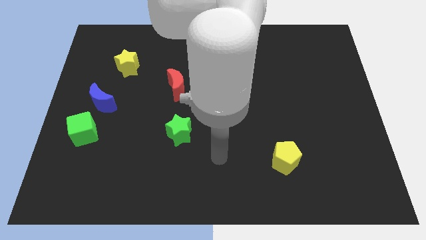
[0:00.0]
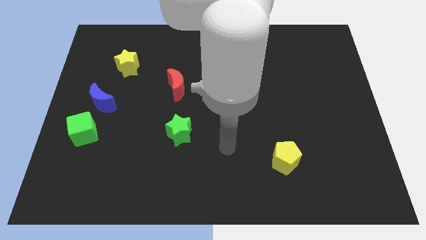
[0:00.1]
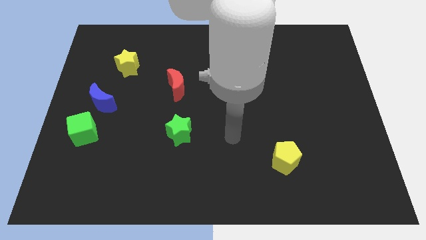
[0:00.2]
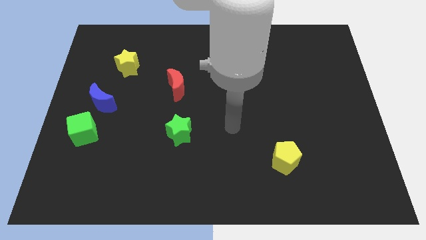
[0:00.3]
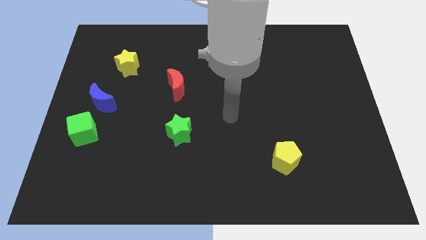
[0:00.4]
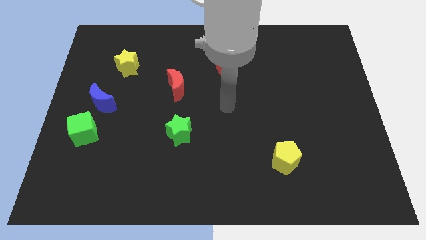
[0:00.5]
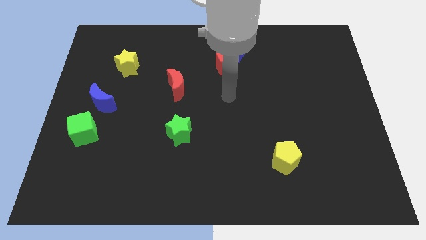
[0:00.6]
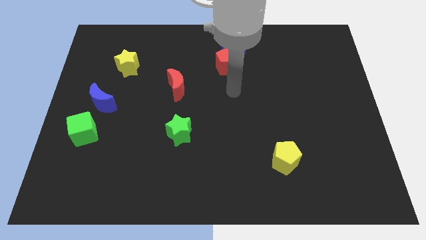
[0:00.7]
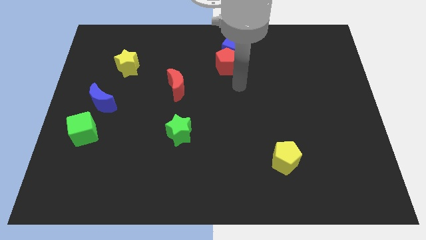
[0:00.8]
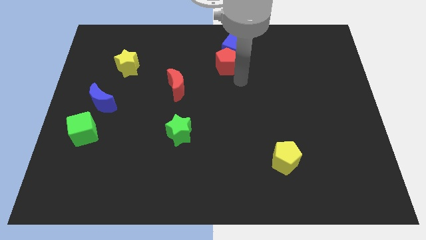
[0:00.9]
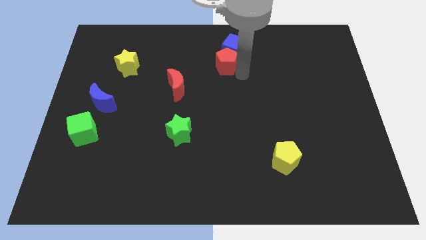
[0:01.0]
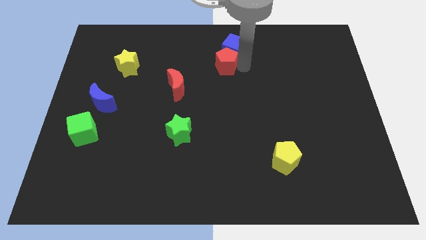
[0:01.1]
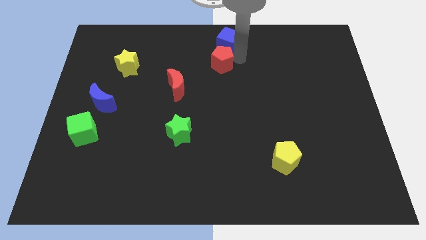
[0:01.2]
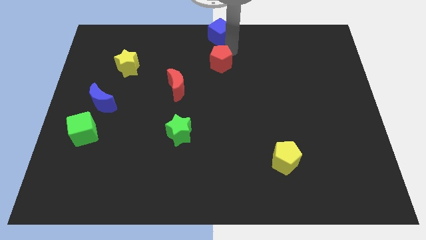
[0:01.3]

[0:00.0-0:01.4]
pull the red pentagon apart from the blue cube

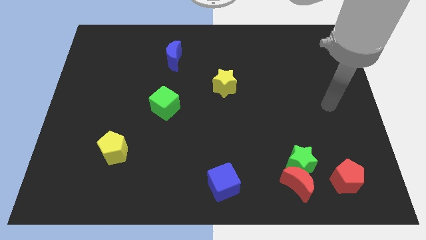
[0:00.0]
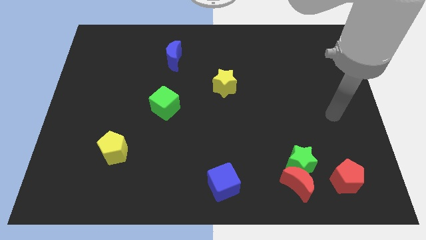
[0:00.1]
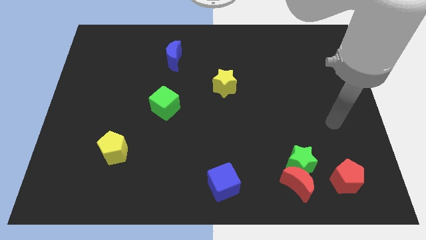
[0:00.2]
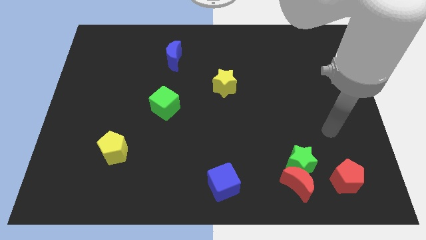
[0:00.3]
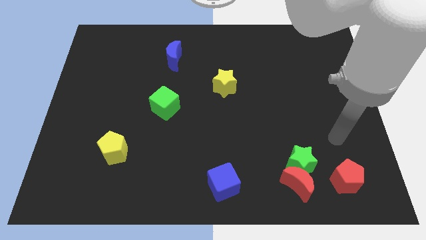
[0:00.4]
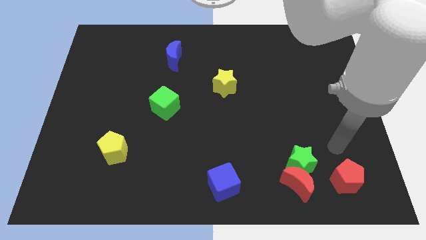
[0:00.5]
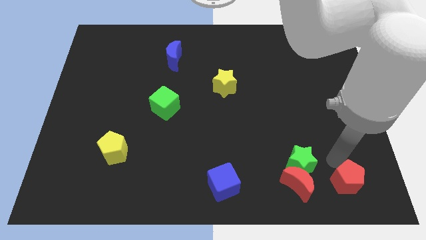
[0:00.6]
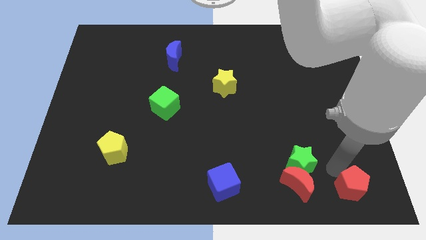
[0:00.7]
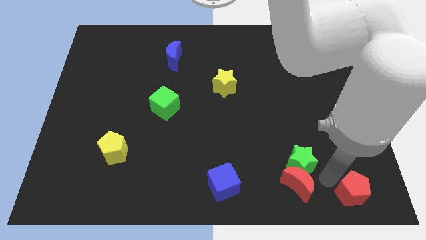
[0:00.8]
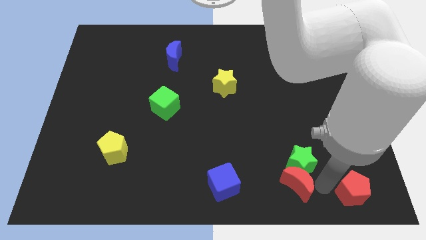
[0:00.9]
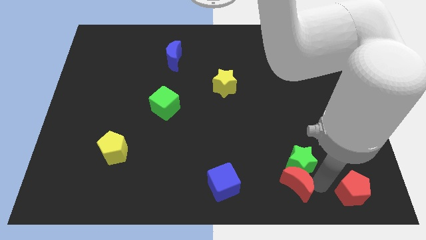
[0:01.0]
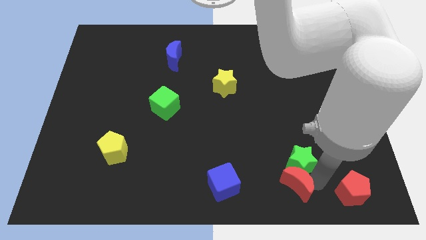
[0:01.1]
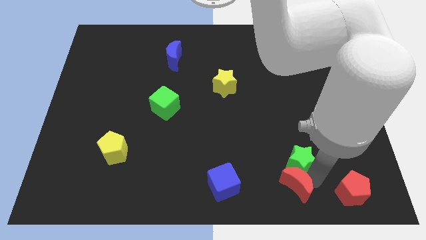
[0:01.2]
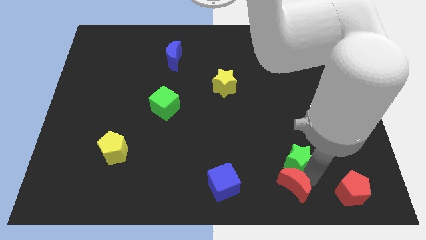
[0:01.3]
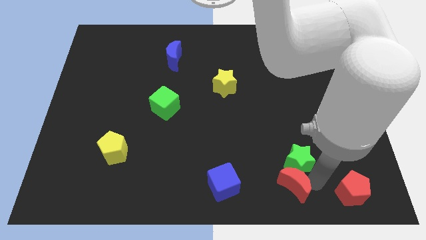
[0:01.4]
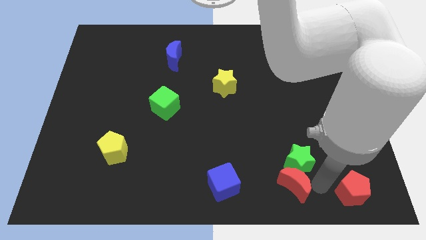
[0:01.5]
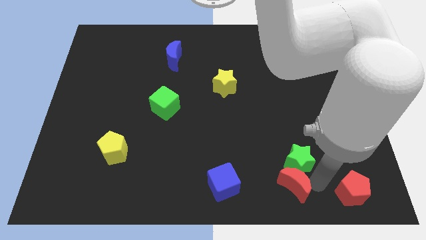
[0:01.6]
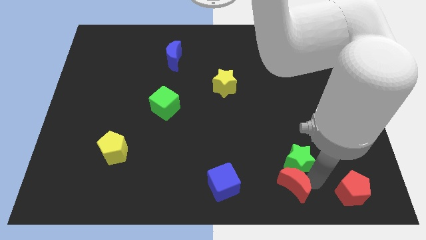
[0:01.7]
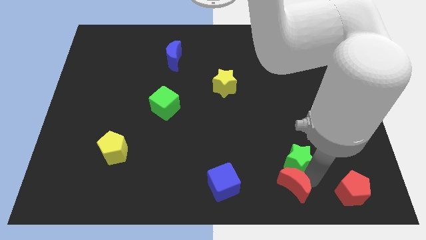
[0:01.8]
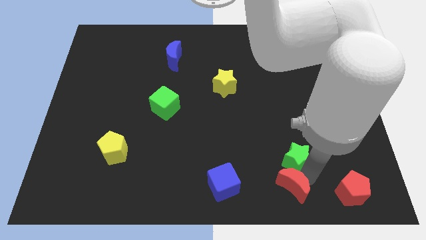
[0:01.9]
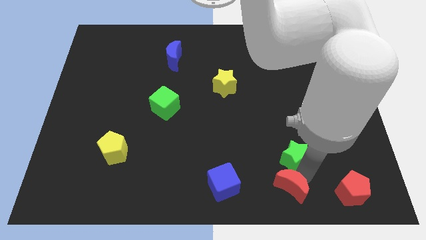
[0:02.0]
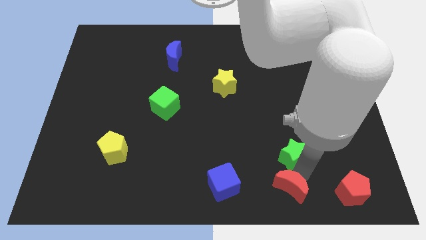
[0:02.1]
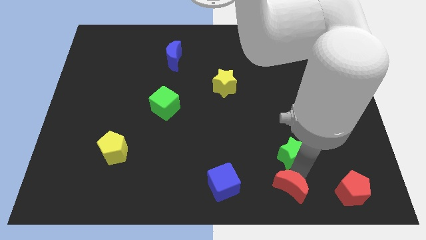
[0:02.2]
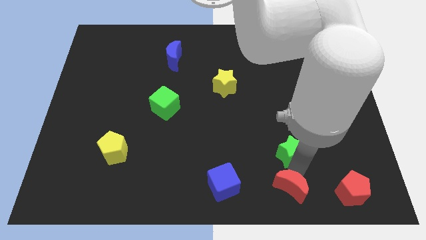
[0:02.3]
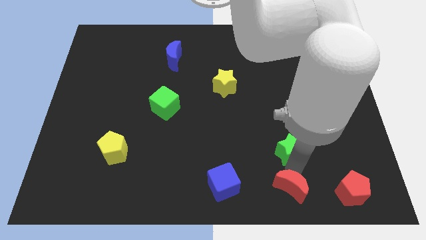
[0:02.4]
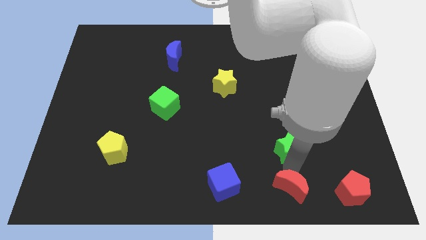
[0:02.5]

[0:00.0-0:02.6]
pull the green star apart from the red moon and red pentagon

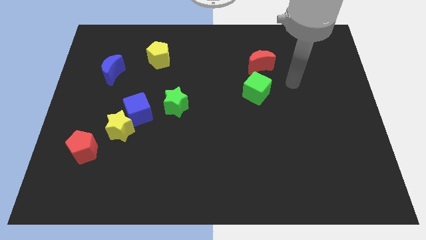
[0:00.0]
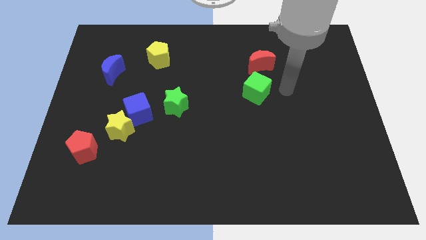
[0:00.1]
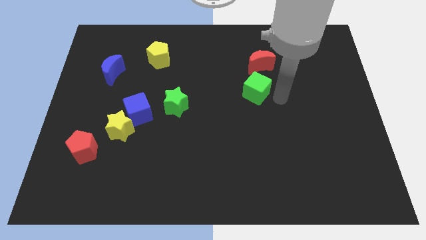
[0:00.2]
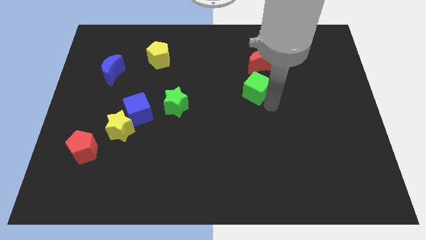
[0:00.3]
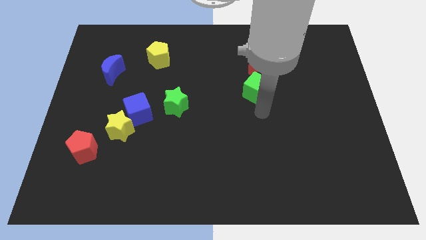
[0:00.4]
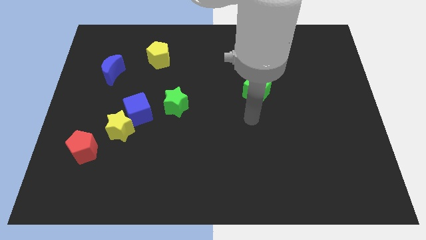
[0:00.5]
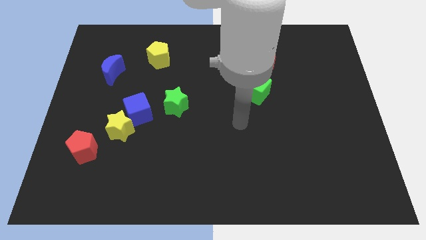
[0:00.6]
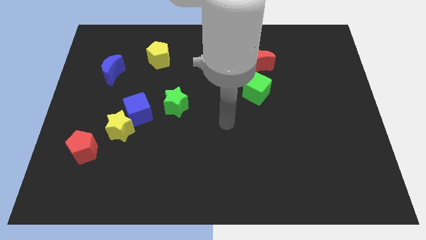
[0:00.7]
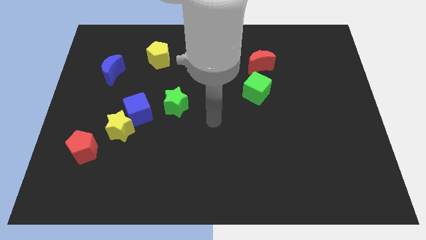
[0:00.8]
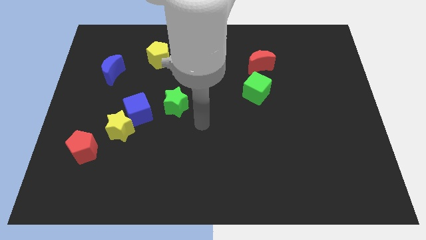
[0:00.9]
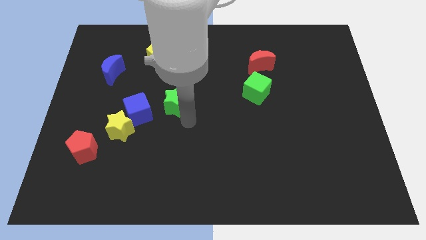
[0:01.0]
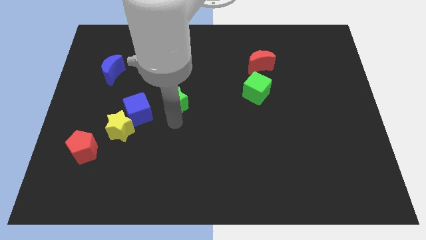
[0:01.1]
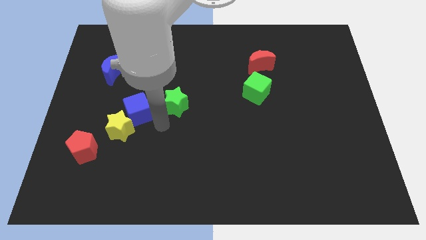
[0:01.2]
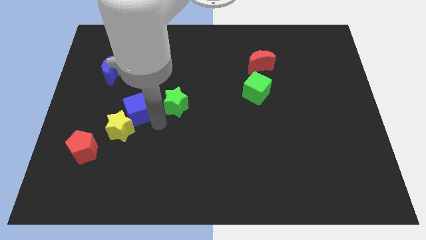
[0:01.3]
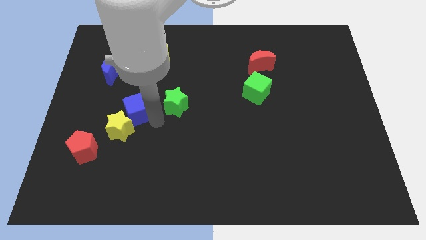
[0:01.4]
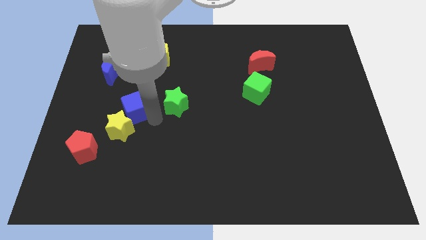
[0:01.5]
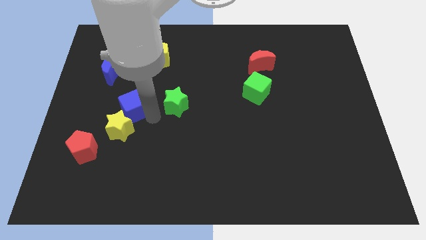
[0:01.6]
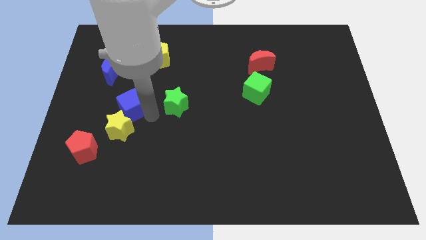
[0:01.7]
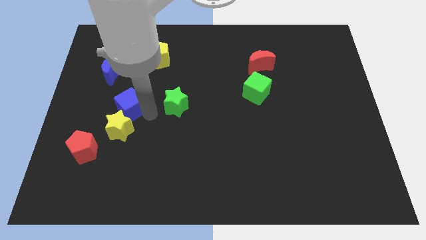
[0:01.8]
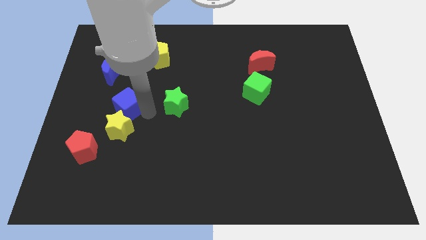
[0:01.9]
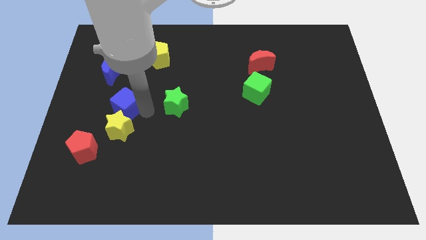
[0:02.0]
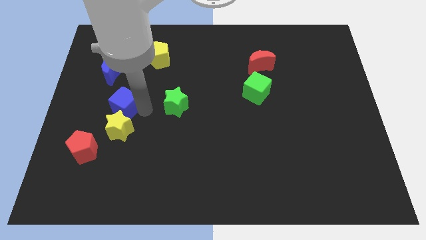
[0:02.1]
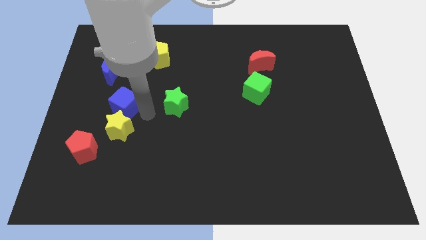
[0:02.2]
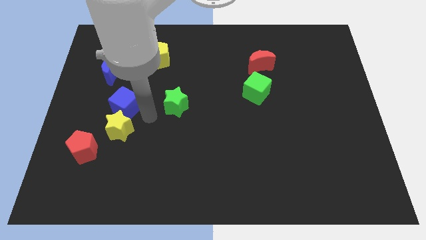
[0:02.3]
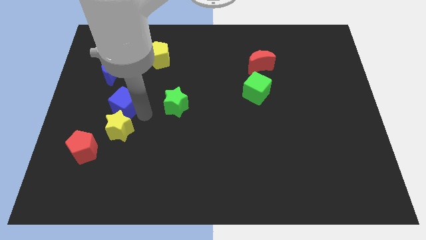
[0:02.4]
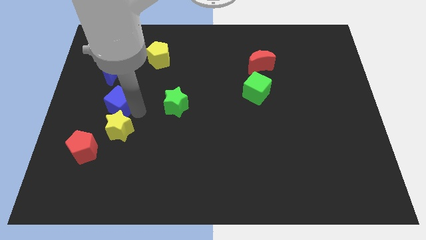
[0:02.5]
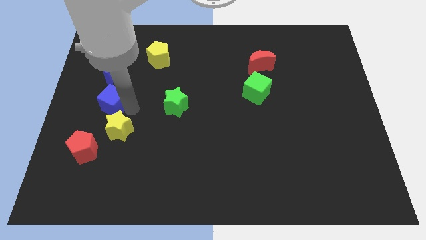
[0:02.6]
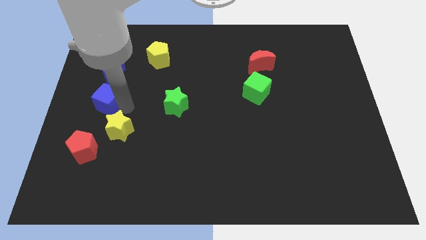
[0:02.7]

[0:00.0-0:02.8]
pull the blue cube apart from the yellow star and green star

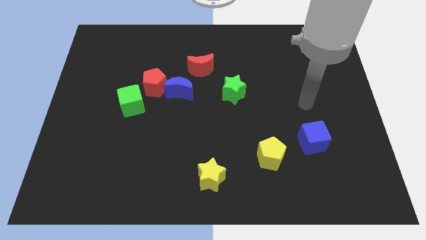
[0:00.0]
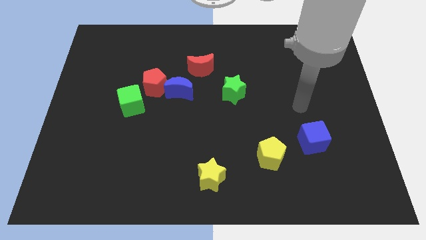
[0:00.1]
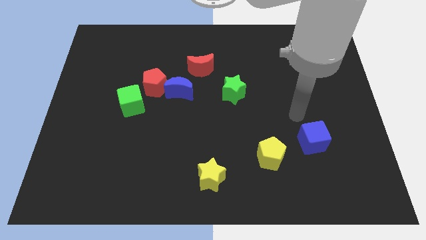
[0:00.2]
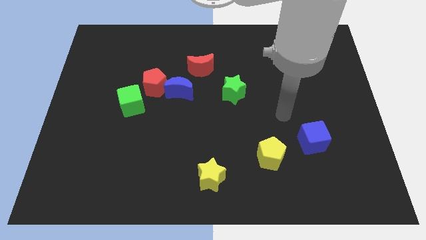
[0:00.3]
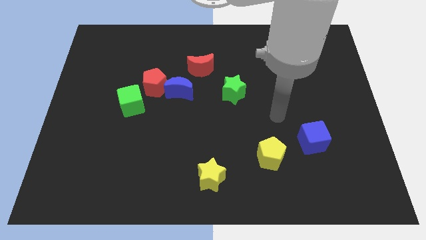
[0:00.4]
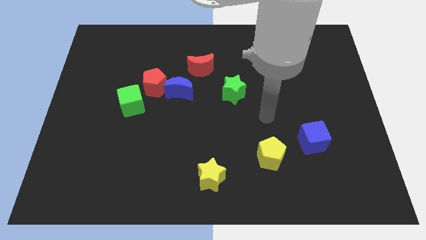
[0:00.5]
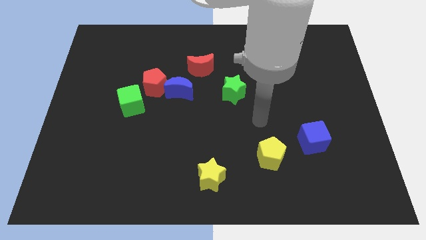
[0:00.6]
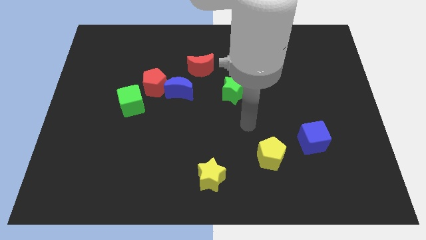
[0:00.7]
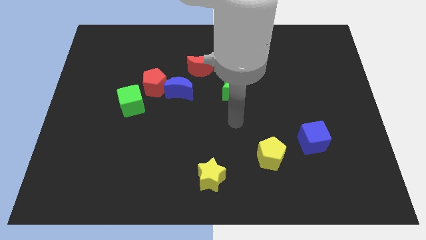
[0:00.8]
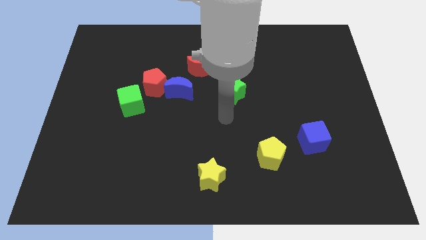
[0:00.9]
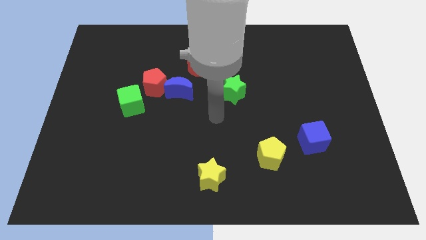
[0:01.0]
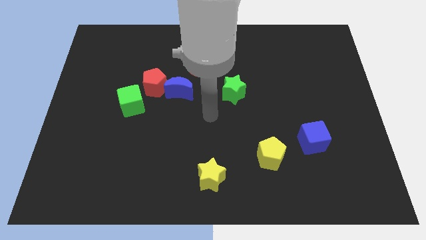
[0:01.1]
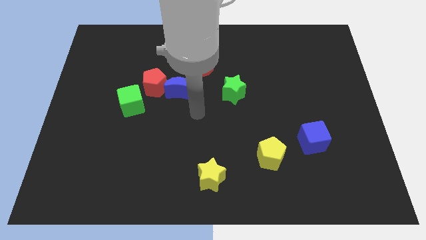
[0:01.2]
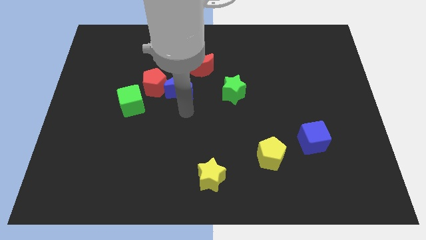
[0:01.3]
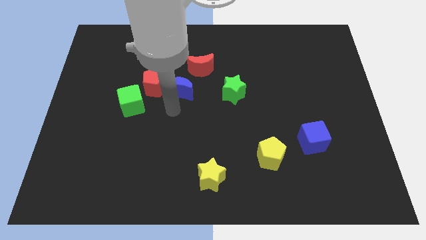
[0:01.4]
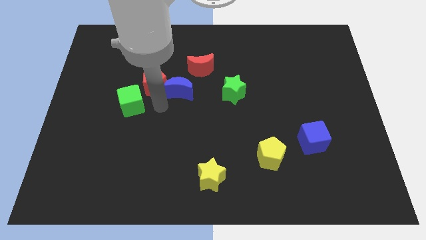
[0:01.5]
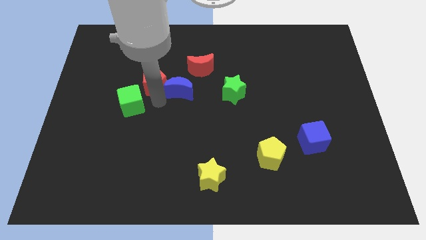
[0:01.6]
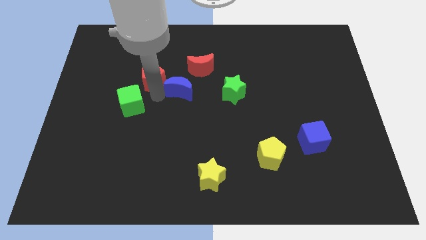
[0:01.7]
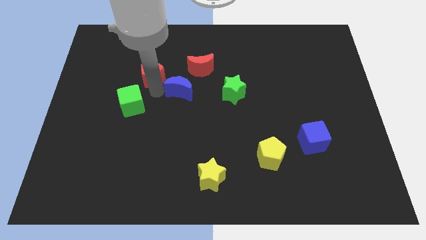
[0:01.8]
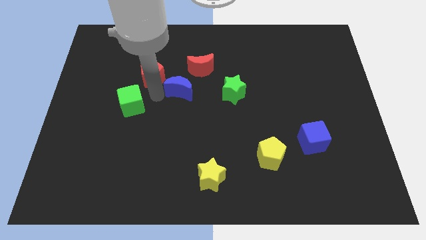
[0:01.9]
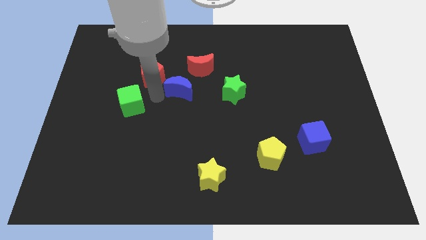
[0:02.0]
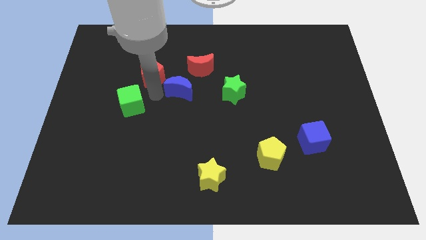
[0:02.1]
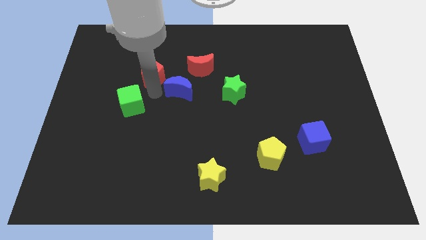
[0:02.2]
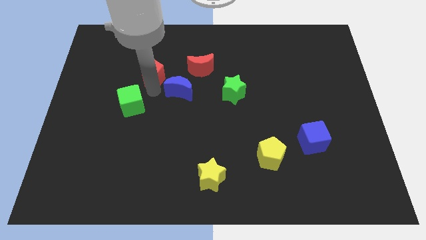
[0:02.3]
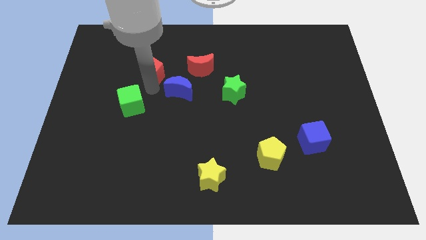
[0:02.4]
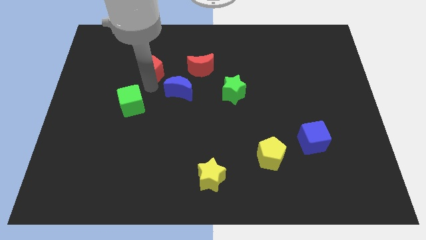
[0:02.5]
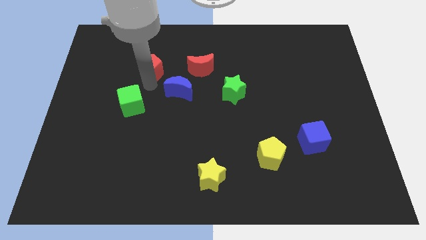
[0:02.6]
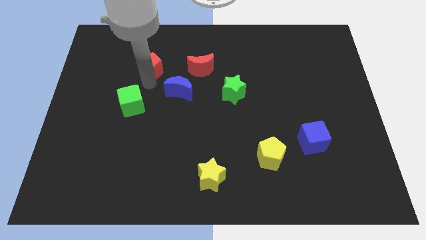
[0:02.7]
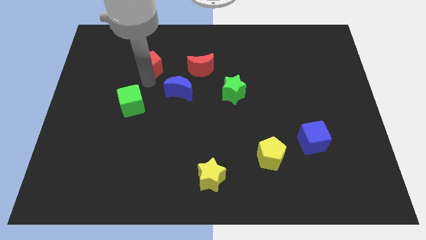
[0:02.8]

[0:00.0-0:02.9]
move the red pentagon away from the blue moon and green cube
